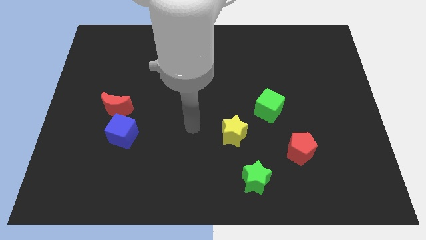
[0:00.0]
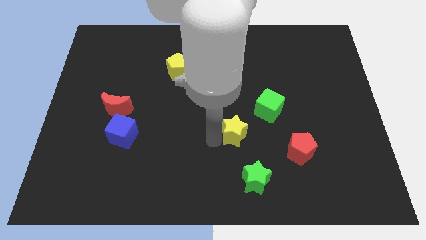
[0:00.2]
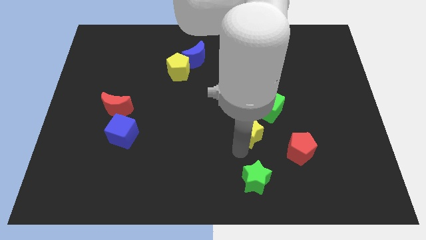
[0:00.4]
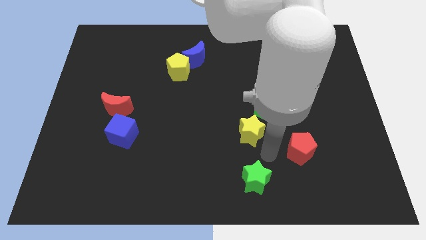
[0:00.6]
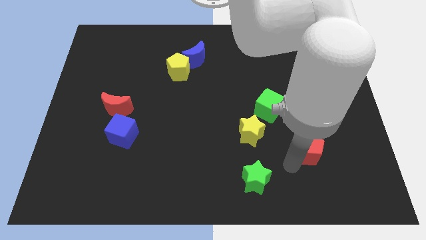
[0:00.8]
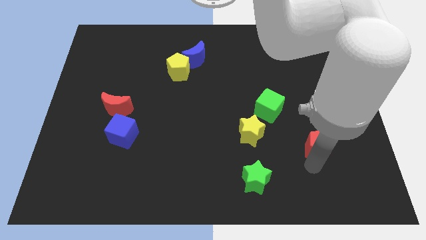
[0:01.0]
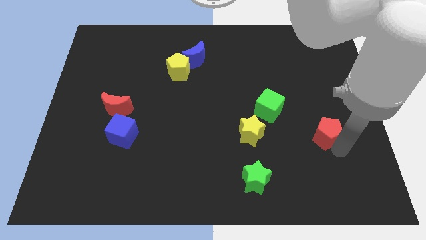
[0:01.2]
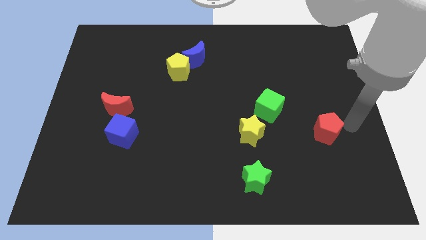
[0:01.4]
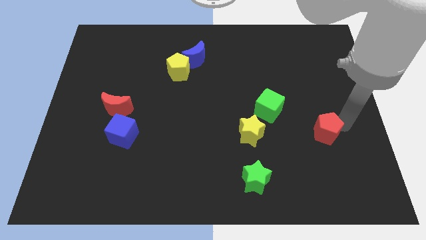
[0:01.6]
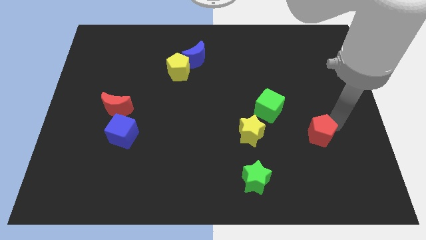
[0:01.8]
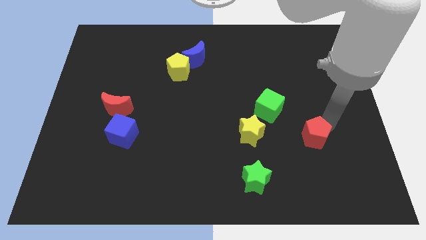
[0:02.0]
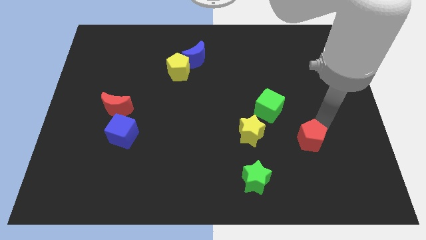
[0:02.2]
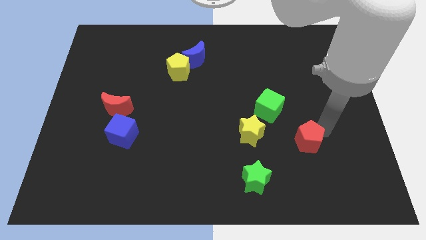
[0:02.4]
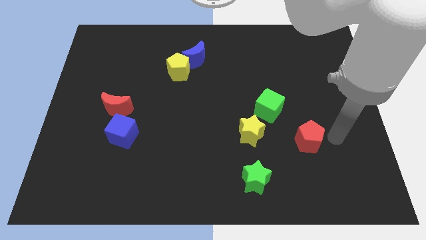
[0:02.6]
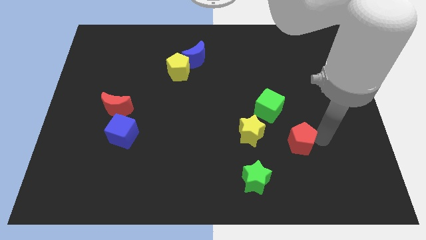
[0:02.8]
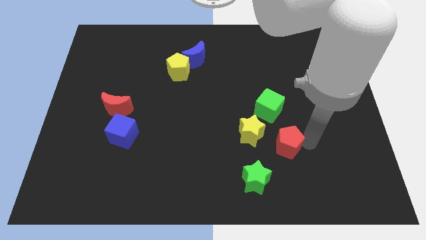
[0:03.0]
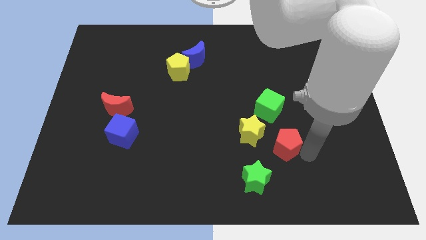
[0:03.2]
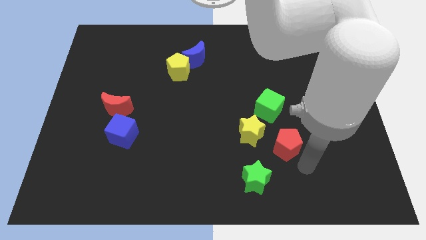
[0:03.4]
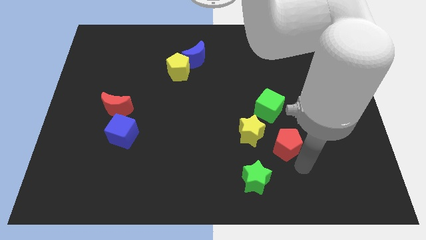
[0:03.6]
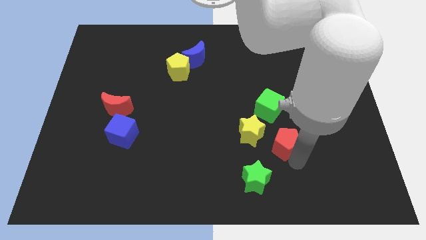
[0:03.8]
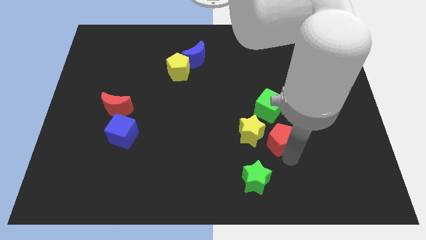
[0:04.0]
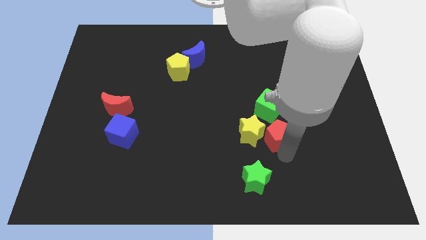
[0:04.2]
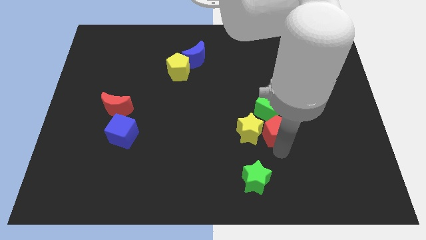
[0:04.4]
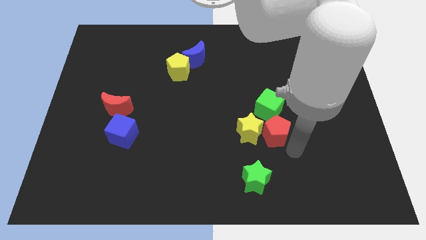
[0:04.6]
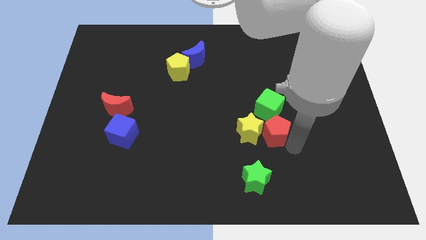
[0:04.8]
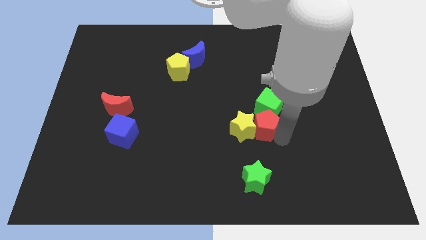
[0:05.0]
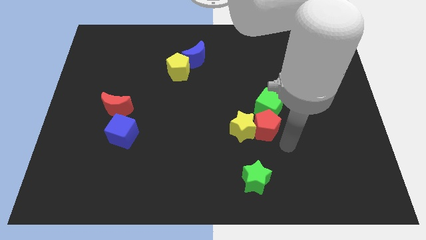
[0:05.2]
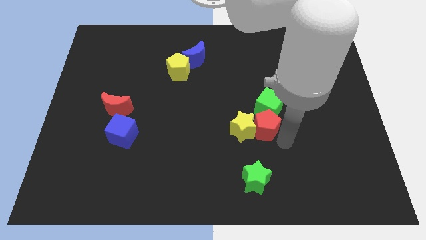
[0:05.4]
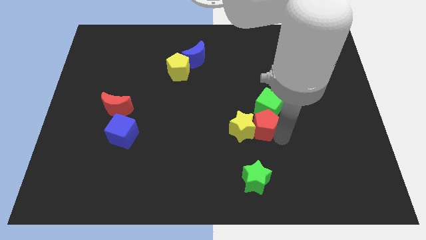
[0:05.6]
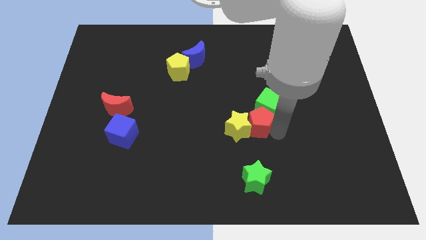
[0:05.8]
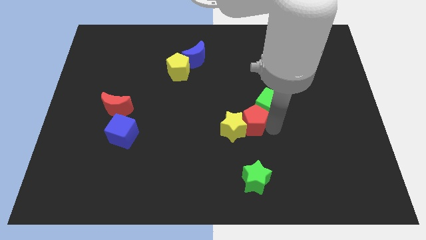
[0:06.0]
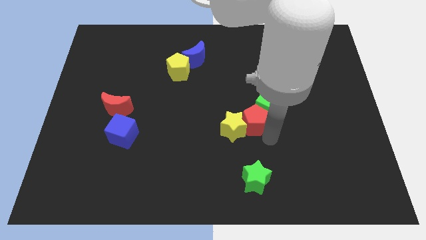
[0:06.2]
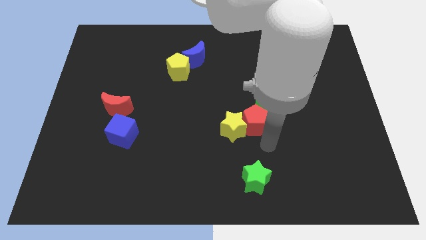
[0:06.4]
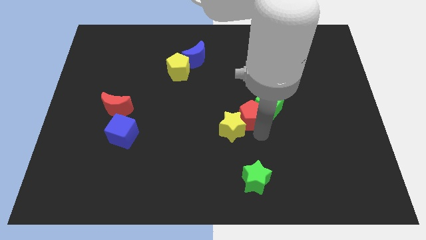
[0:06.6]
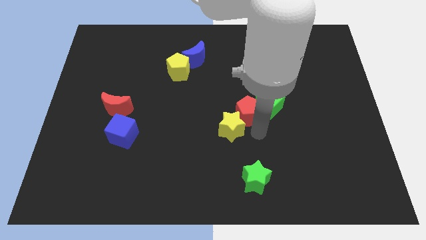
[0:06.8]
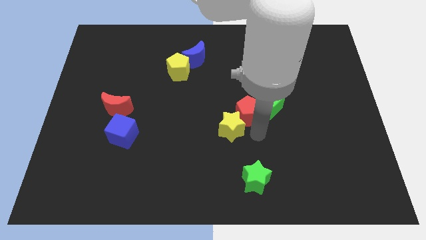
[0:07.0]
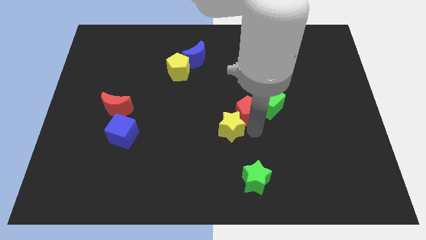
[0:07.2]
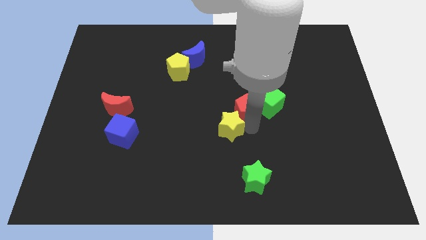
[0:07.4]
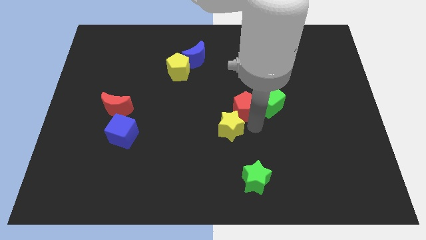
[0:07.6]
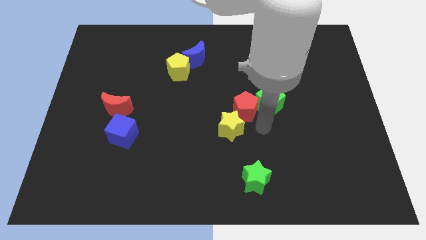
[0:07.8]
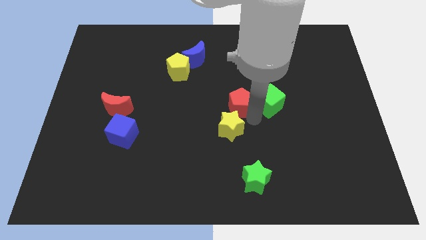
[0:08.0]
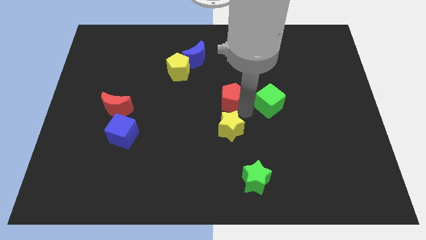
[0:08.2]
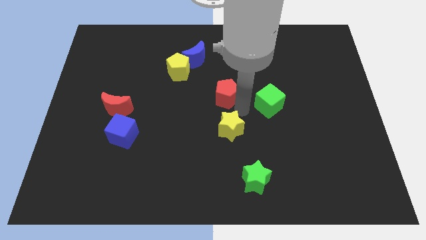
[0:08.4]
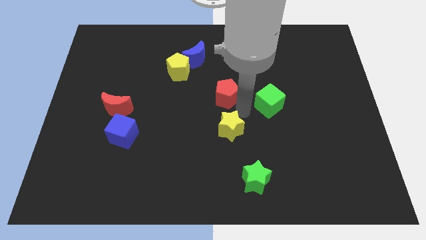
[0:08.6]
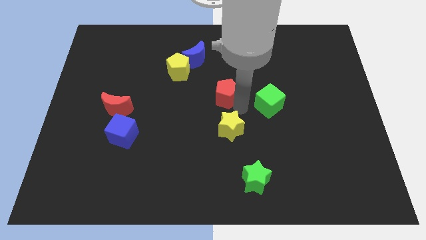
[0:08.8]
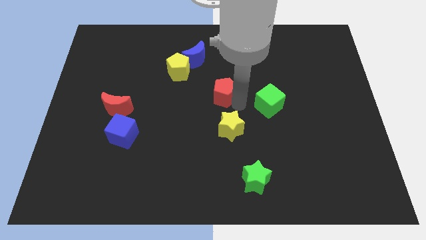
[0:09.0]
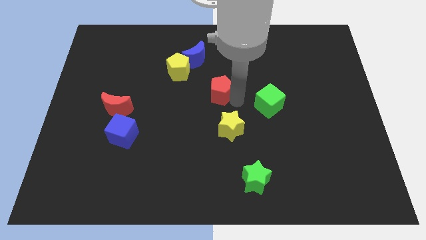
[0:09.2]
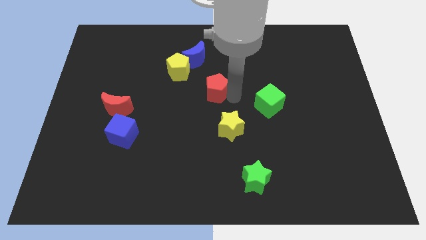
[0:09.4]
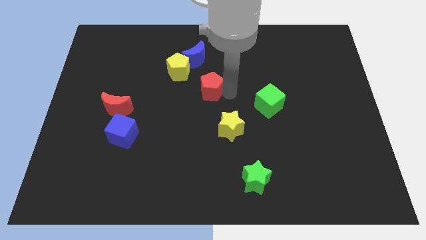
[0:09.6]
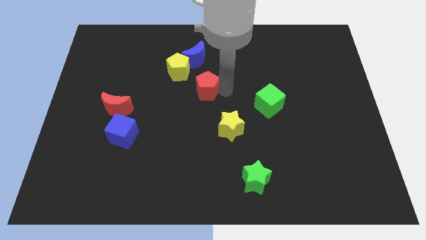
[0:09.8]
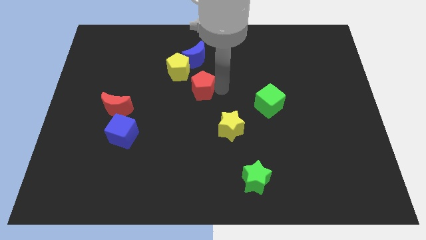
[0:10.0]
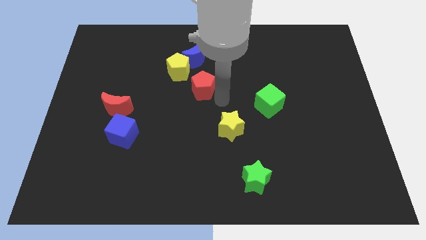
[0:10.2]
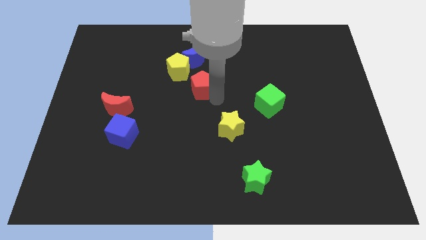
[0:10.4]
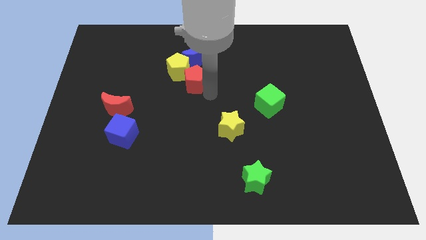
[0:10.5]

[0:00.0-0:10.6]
push the red pentagon to the yellow pentagon

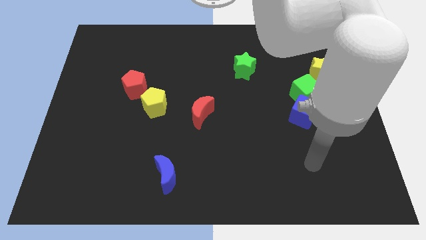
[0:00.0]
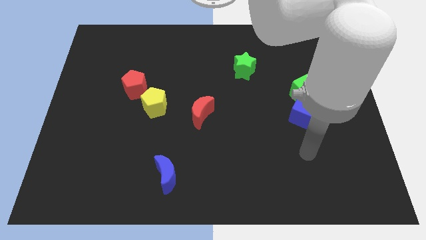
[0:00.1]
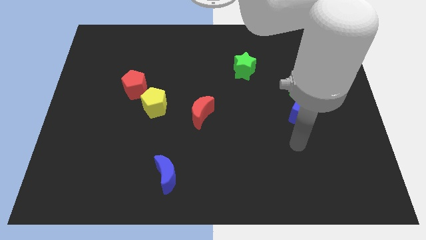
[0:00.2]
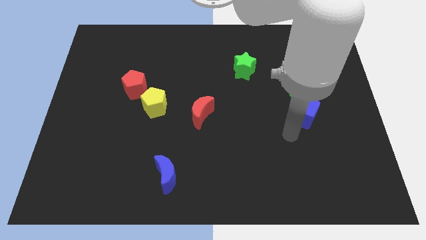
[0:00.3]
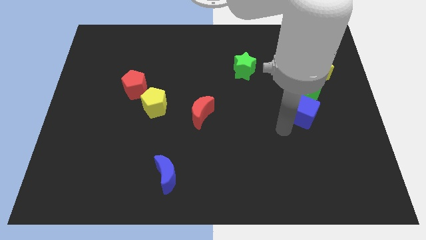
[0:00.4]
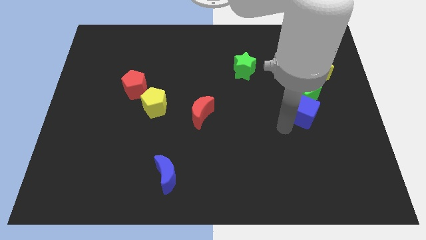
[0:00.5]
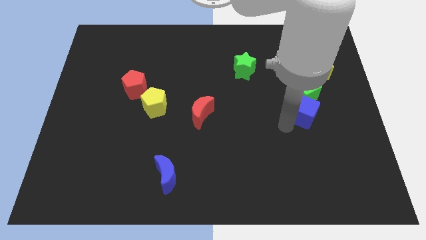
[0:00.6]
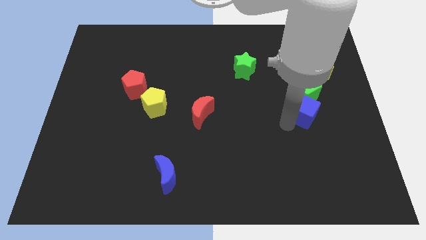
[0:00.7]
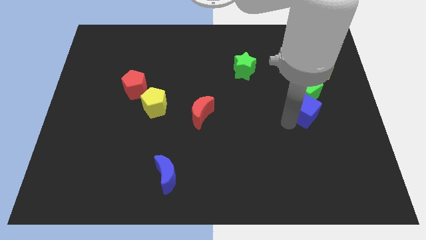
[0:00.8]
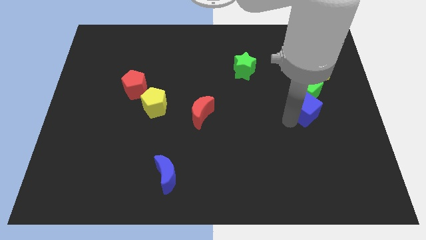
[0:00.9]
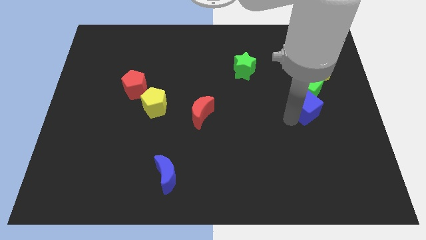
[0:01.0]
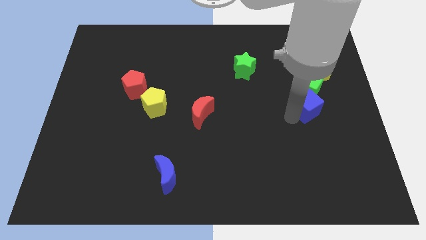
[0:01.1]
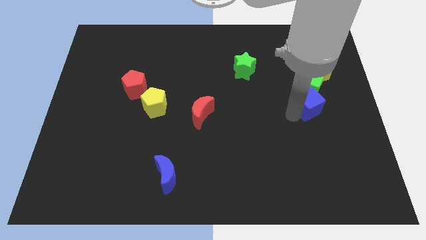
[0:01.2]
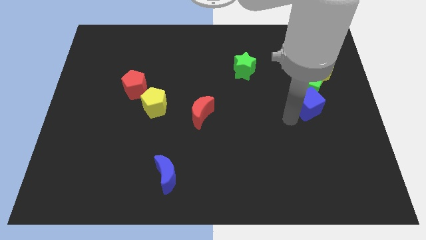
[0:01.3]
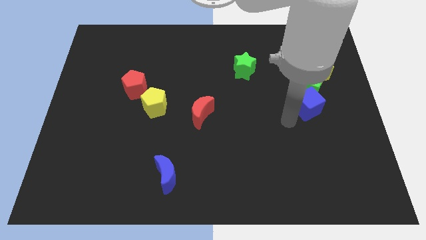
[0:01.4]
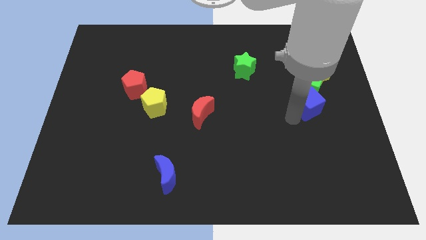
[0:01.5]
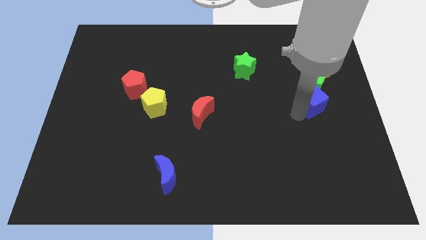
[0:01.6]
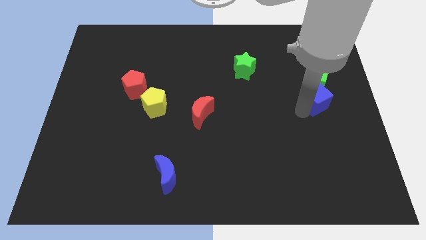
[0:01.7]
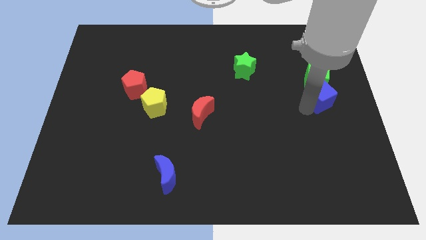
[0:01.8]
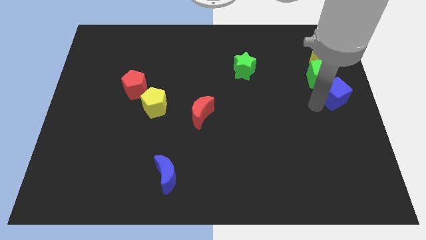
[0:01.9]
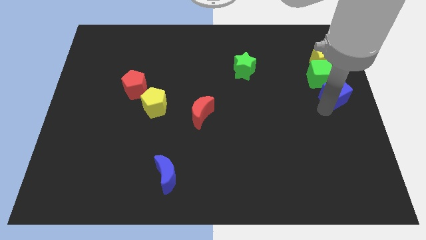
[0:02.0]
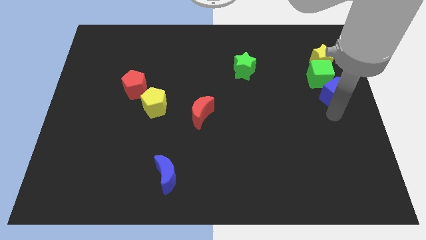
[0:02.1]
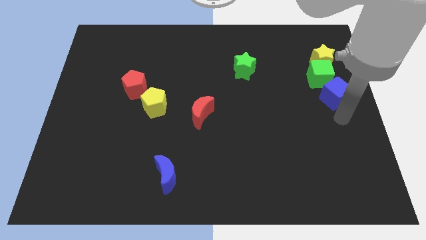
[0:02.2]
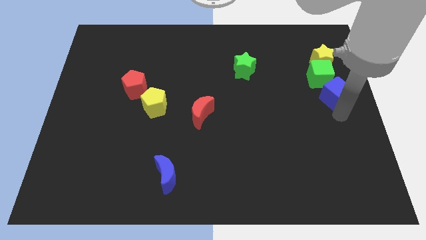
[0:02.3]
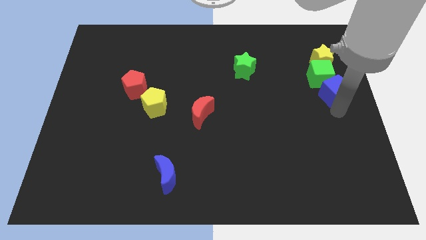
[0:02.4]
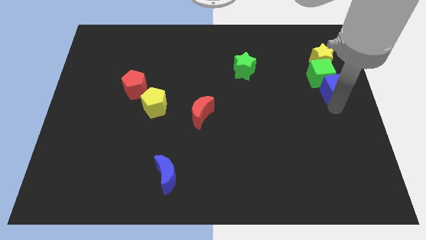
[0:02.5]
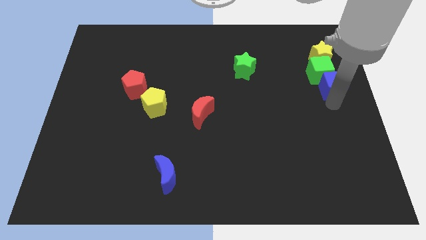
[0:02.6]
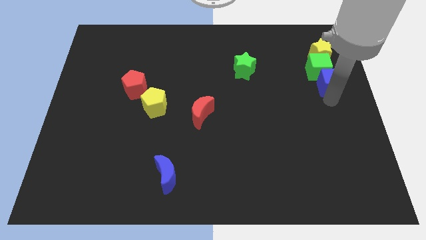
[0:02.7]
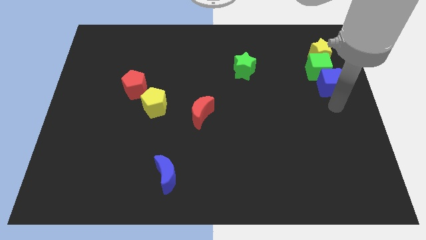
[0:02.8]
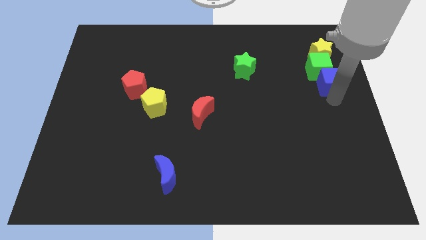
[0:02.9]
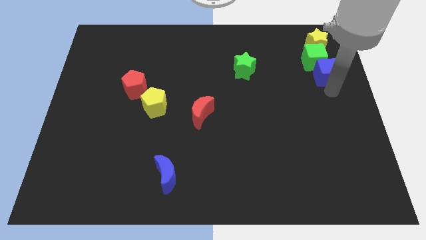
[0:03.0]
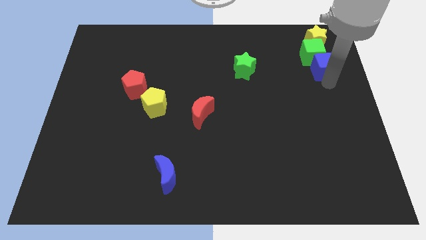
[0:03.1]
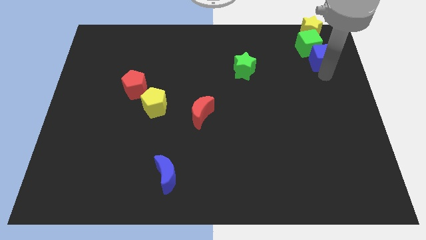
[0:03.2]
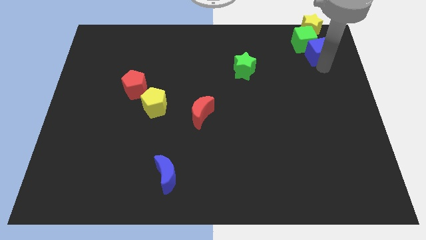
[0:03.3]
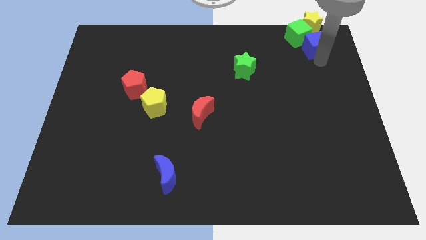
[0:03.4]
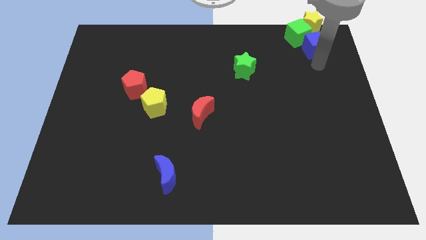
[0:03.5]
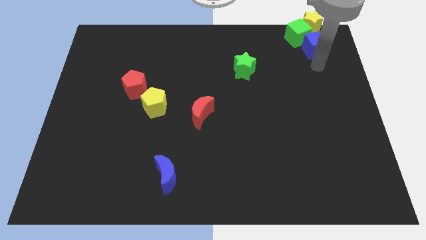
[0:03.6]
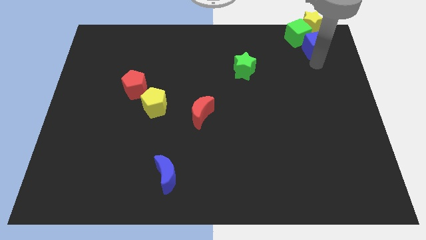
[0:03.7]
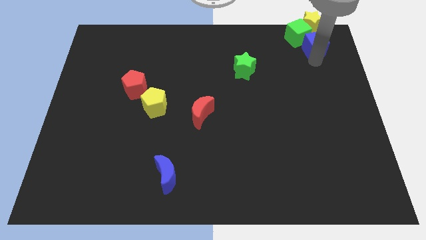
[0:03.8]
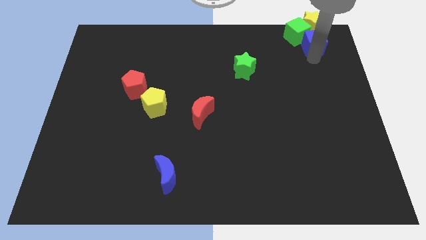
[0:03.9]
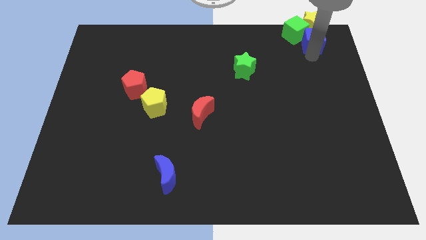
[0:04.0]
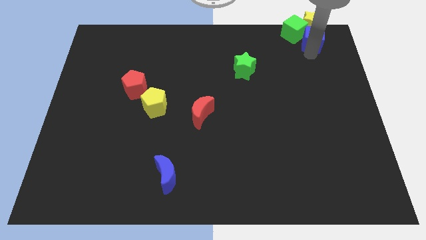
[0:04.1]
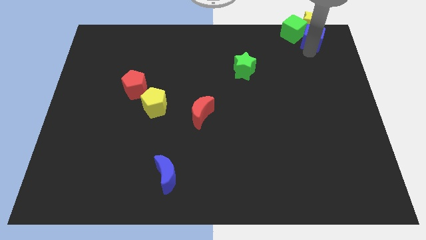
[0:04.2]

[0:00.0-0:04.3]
push the blue cube close to the yellow star
